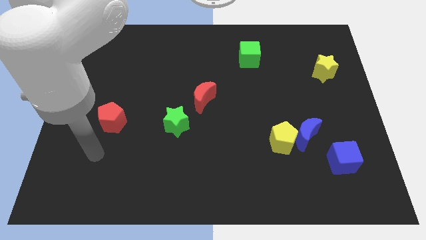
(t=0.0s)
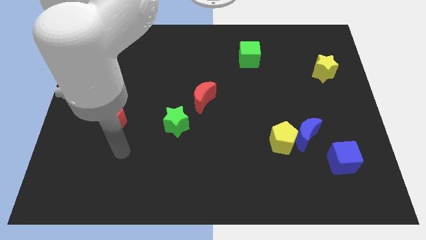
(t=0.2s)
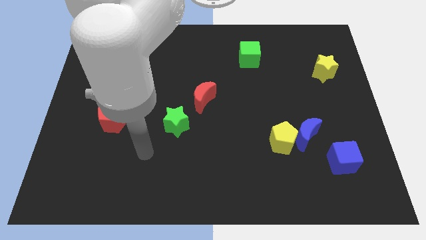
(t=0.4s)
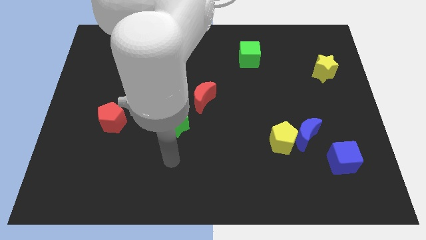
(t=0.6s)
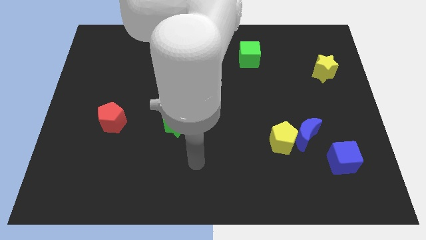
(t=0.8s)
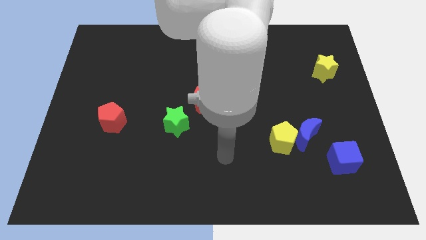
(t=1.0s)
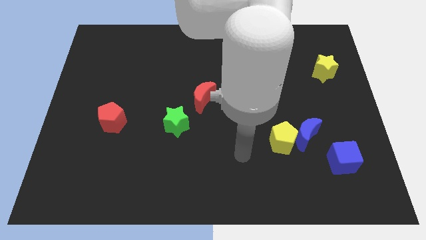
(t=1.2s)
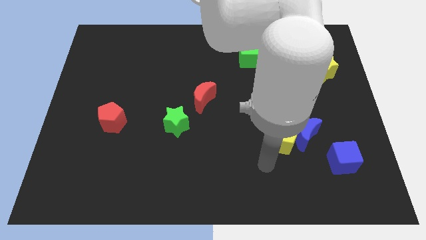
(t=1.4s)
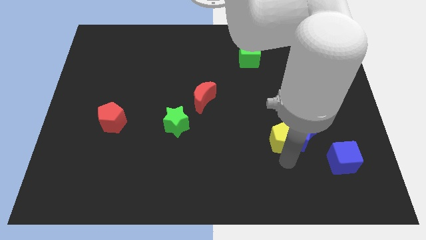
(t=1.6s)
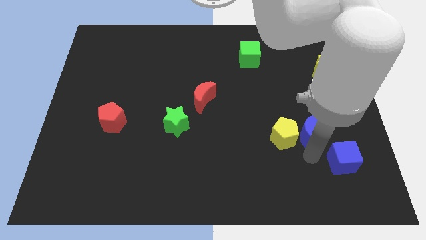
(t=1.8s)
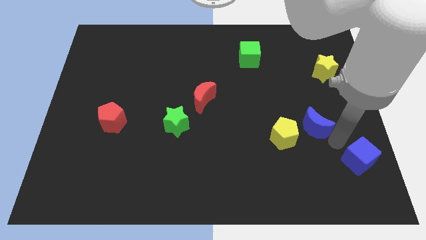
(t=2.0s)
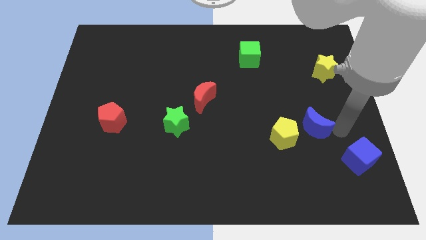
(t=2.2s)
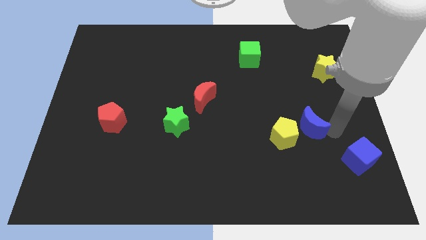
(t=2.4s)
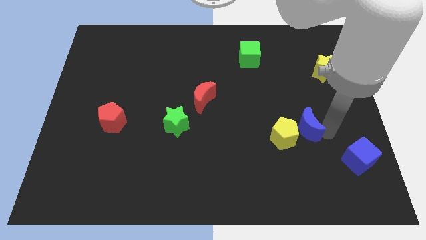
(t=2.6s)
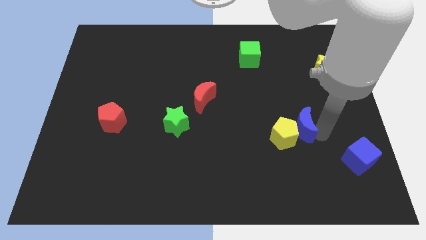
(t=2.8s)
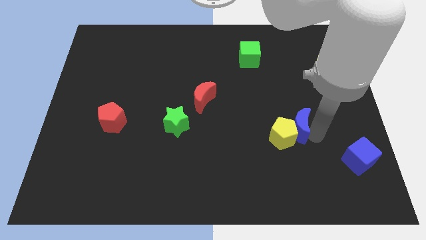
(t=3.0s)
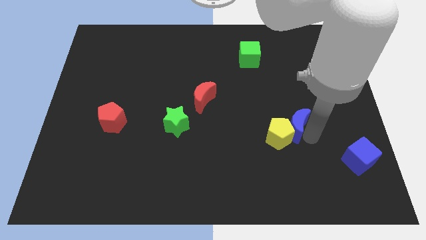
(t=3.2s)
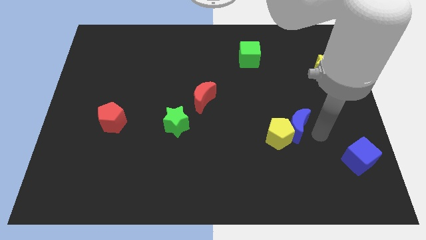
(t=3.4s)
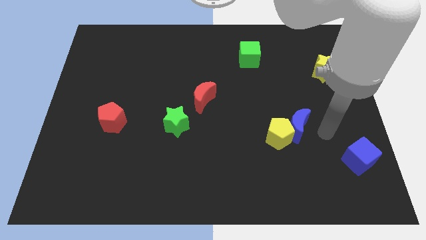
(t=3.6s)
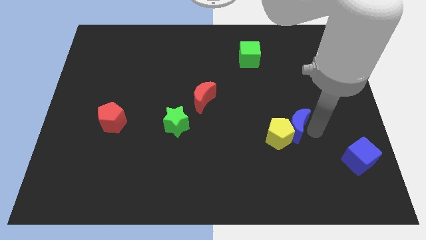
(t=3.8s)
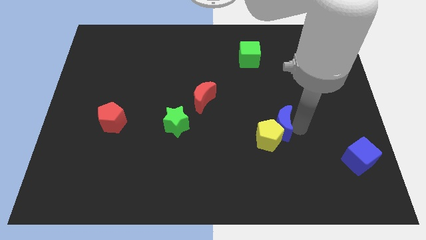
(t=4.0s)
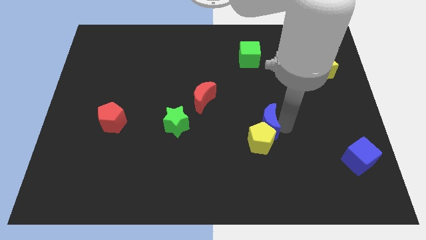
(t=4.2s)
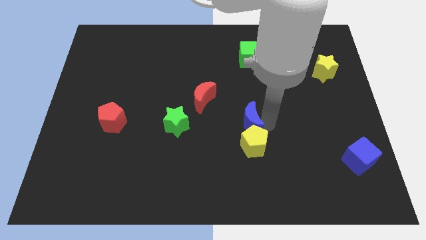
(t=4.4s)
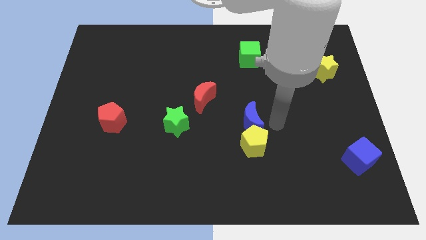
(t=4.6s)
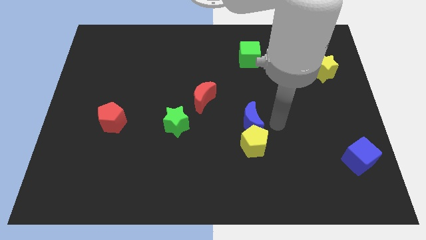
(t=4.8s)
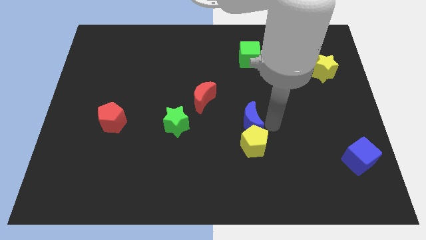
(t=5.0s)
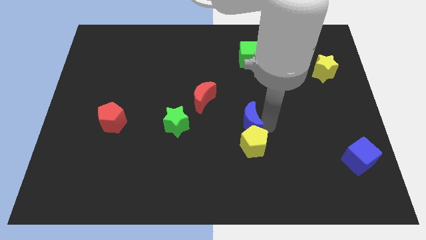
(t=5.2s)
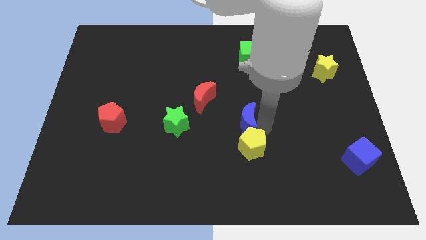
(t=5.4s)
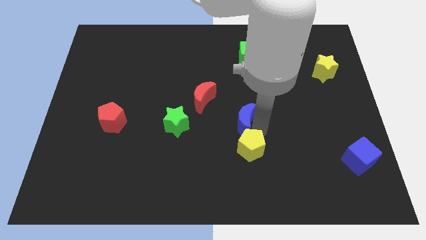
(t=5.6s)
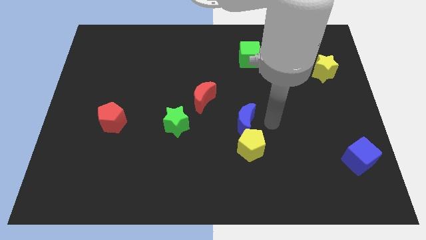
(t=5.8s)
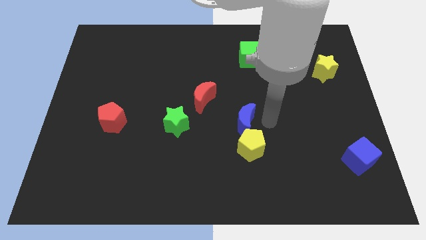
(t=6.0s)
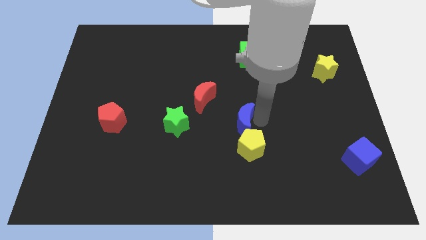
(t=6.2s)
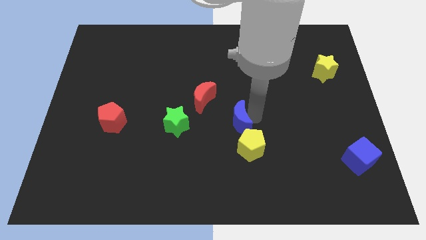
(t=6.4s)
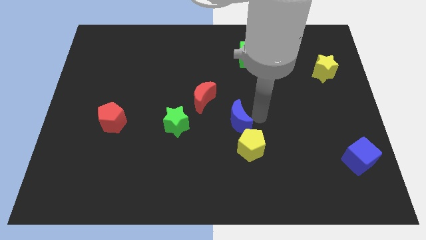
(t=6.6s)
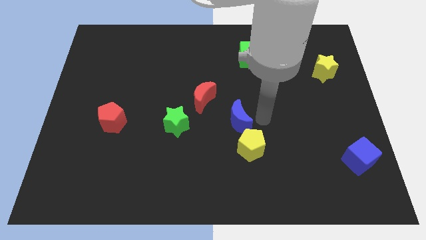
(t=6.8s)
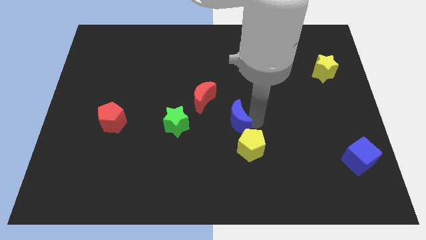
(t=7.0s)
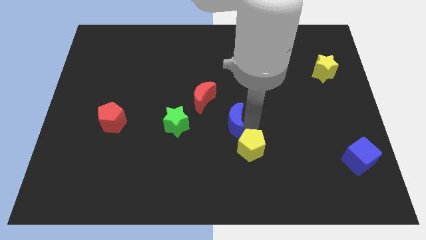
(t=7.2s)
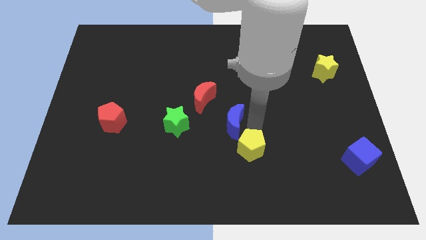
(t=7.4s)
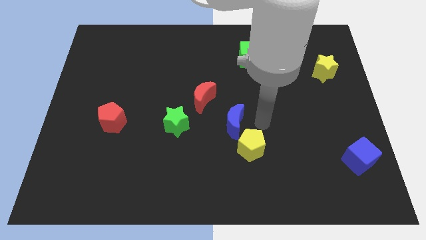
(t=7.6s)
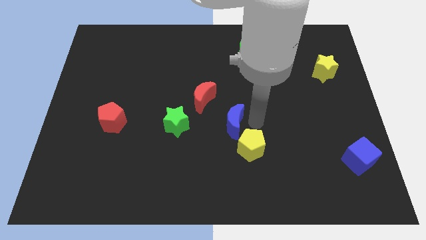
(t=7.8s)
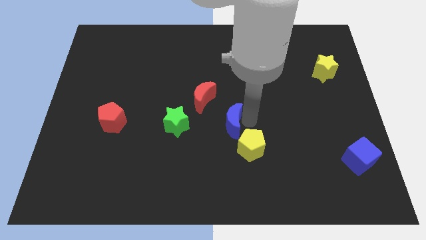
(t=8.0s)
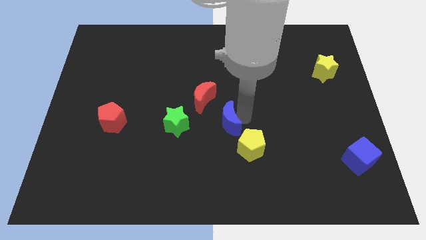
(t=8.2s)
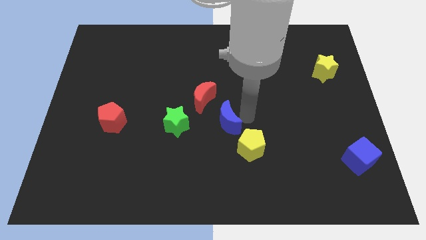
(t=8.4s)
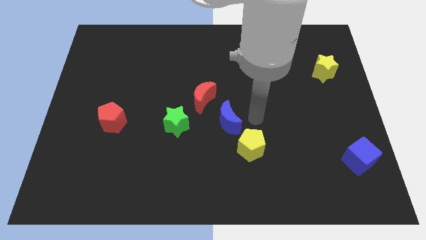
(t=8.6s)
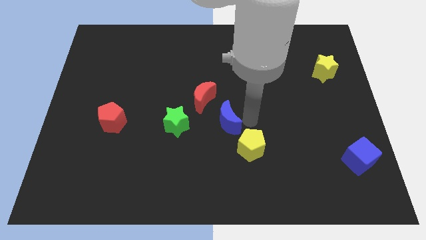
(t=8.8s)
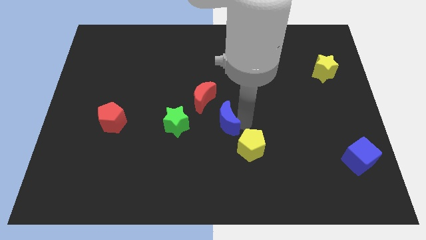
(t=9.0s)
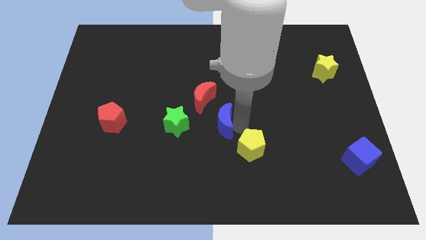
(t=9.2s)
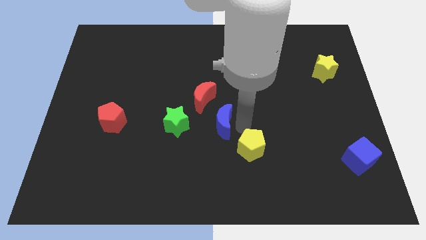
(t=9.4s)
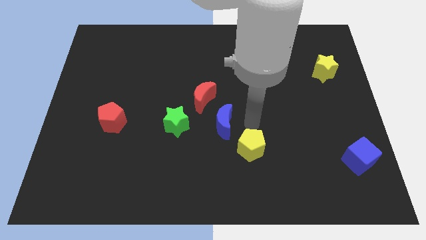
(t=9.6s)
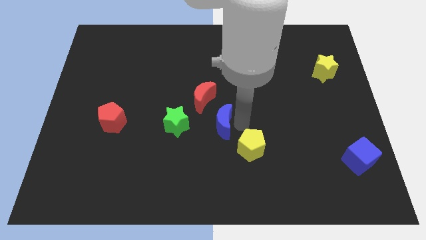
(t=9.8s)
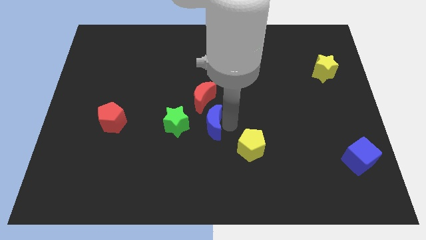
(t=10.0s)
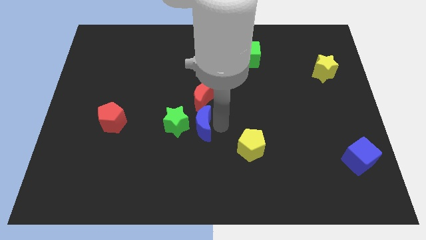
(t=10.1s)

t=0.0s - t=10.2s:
slide the blue moon next to the green star

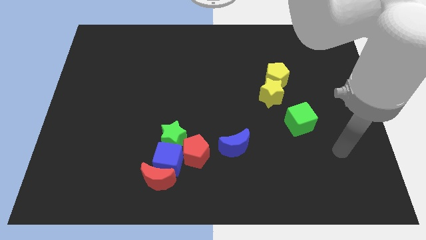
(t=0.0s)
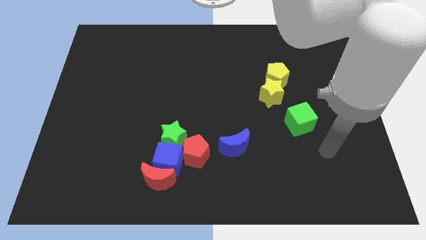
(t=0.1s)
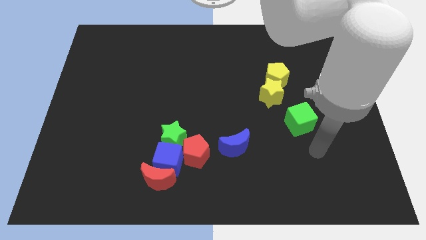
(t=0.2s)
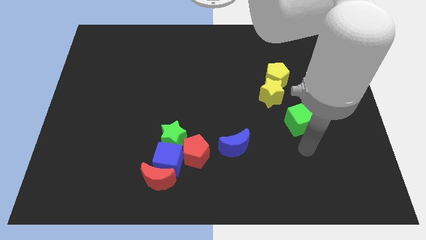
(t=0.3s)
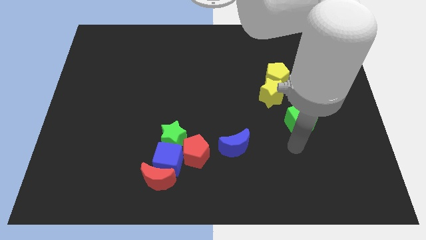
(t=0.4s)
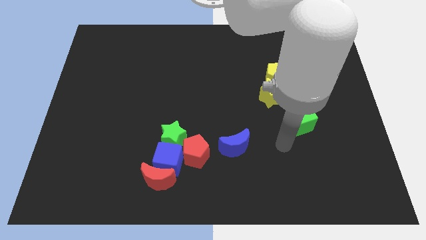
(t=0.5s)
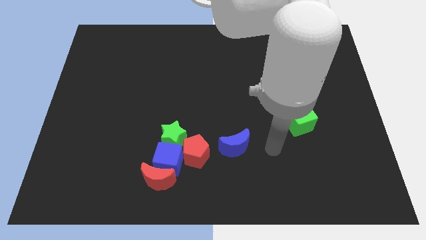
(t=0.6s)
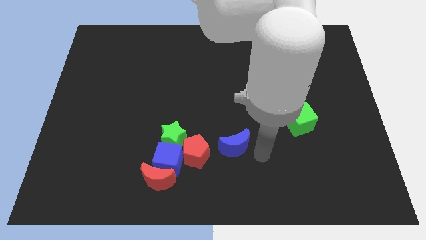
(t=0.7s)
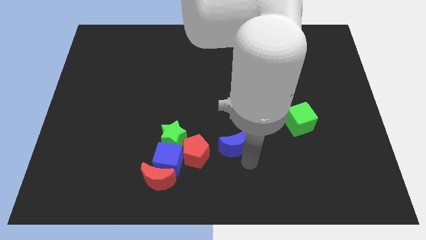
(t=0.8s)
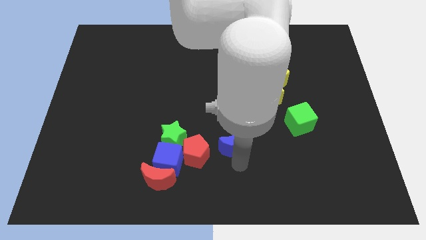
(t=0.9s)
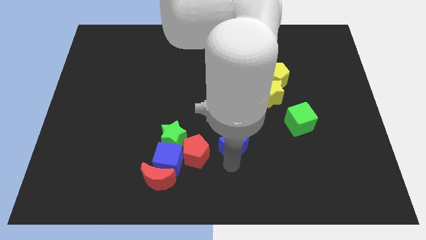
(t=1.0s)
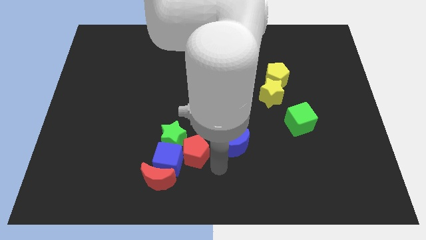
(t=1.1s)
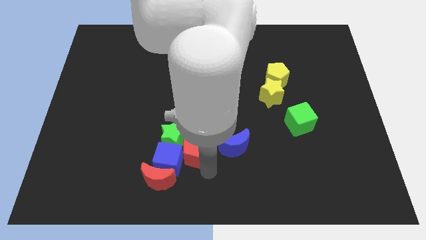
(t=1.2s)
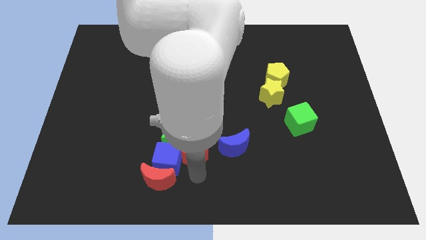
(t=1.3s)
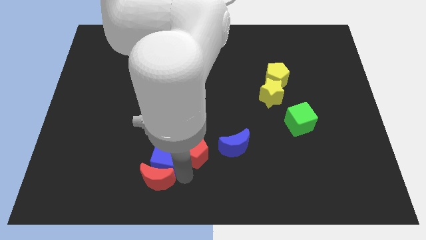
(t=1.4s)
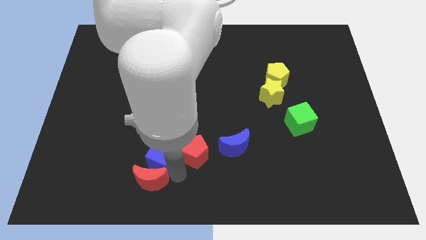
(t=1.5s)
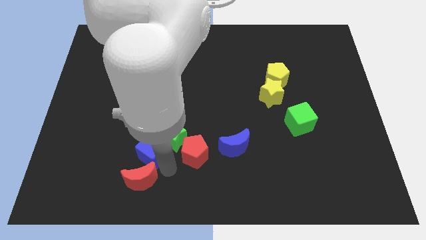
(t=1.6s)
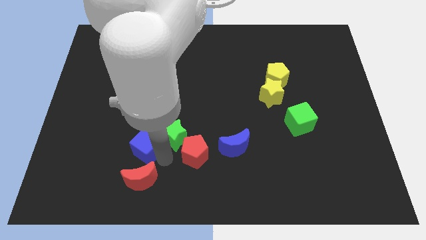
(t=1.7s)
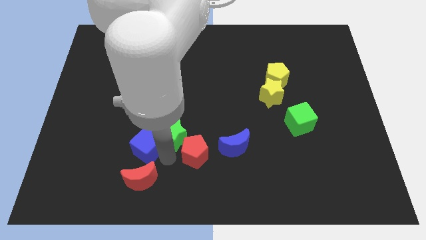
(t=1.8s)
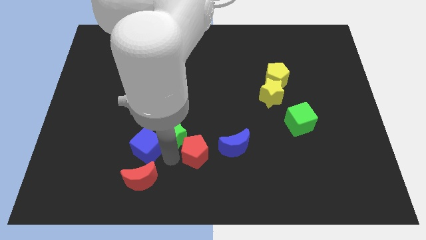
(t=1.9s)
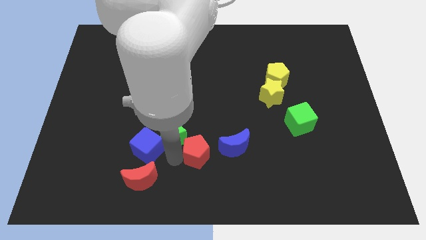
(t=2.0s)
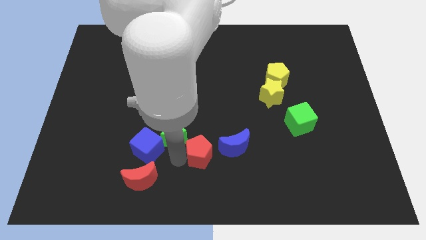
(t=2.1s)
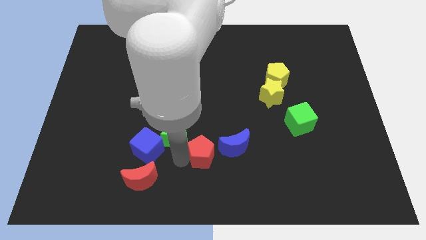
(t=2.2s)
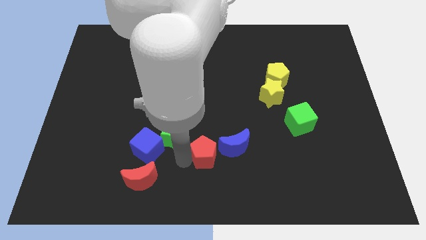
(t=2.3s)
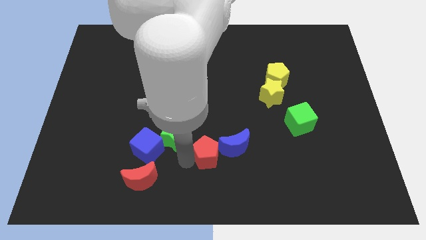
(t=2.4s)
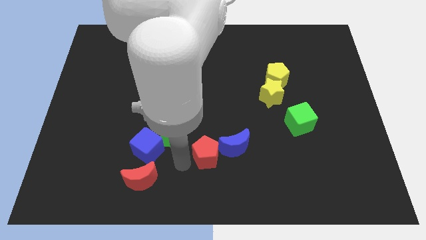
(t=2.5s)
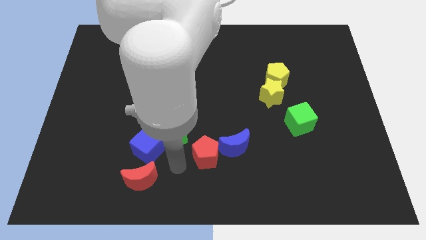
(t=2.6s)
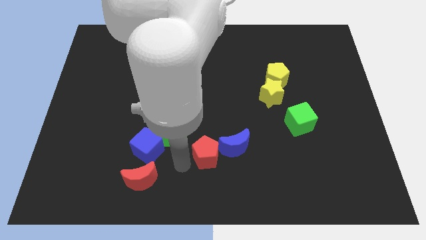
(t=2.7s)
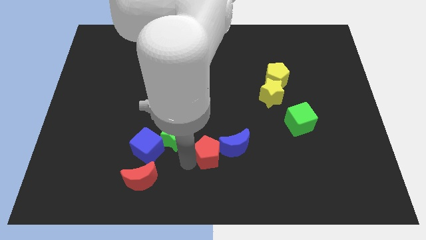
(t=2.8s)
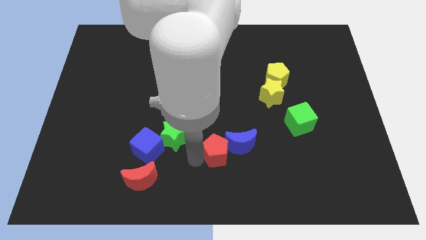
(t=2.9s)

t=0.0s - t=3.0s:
push the red pentagon to the blue moon
